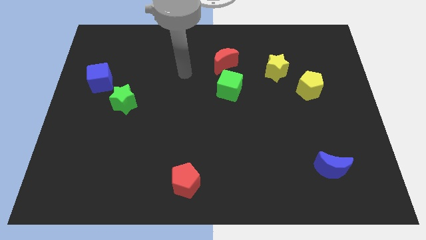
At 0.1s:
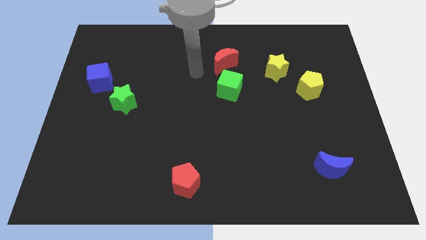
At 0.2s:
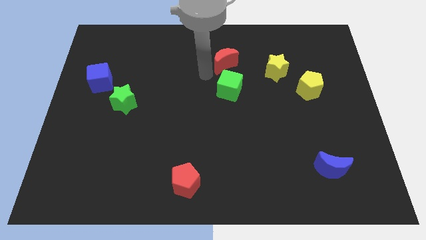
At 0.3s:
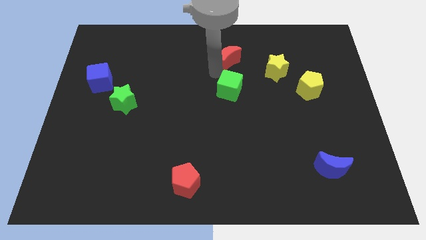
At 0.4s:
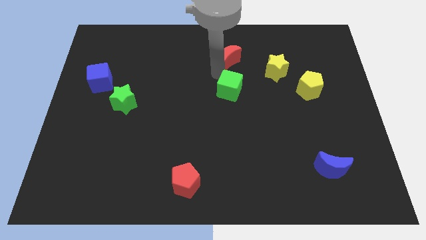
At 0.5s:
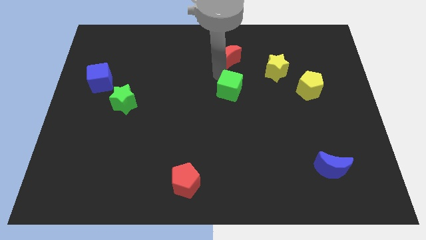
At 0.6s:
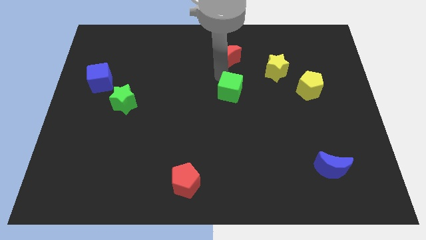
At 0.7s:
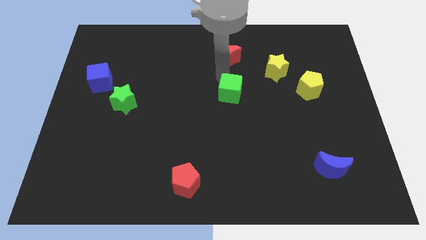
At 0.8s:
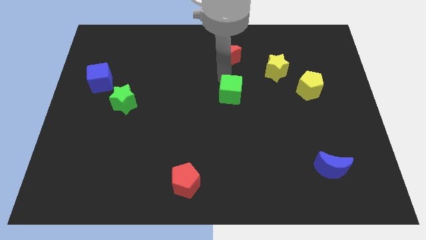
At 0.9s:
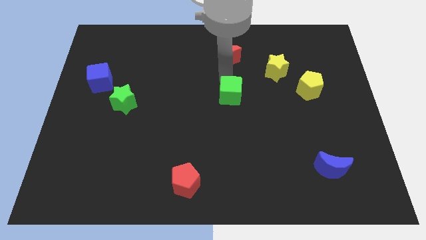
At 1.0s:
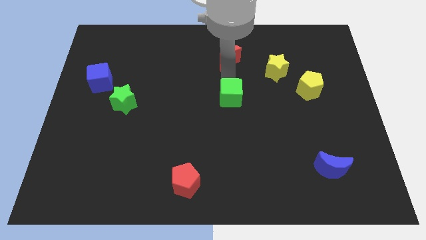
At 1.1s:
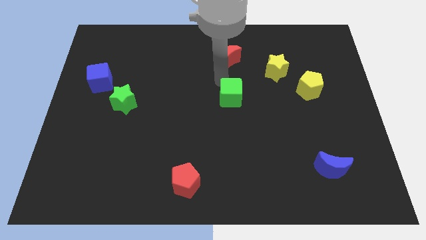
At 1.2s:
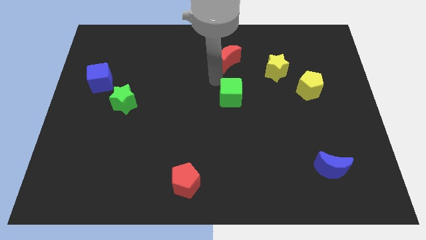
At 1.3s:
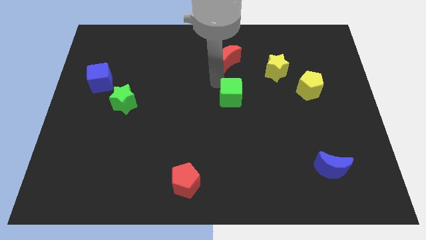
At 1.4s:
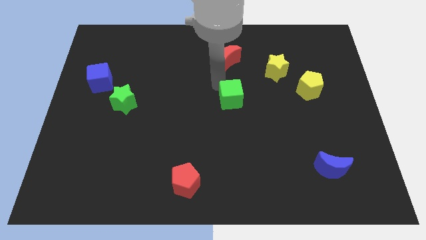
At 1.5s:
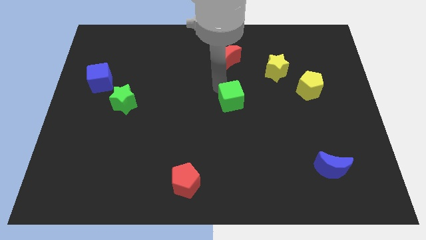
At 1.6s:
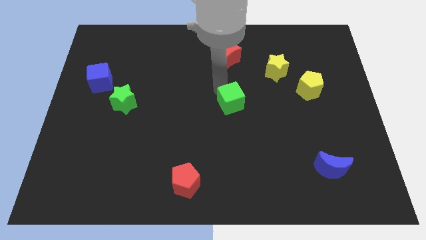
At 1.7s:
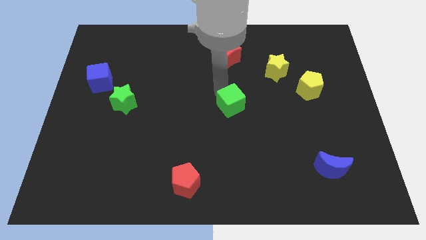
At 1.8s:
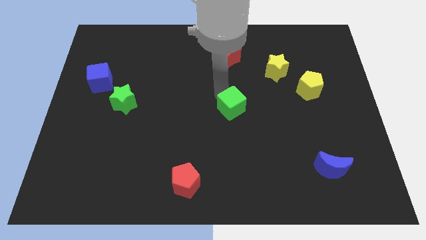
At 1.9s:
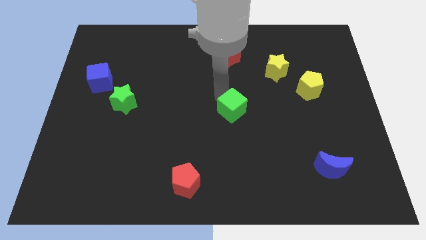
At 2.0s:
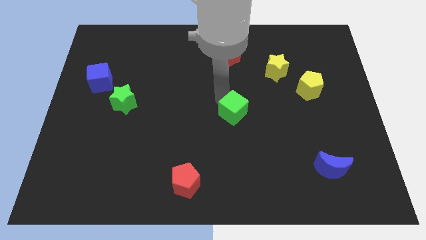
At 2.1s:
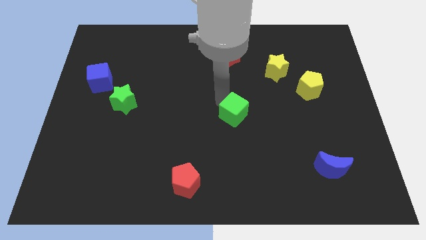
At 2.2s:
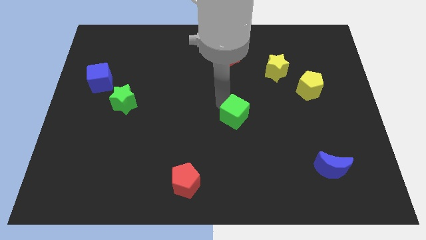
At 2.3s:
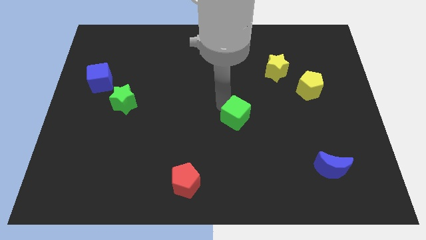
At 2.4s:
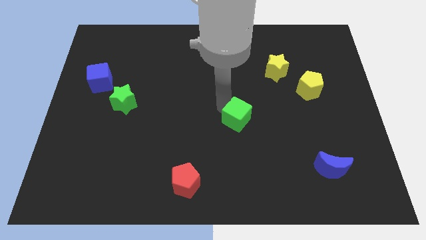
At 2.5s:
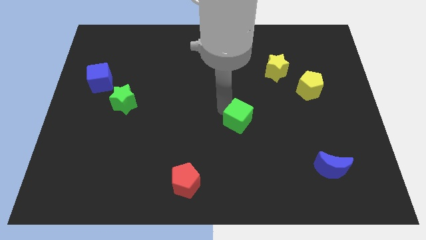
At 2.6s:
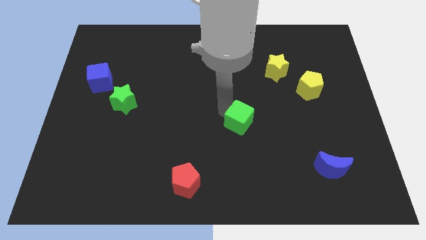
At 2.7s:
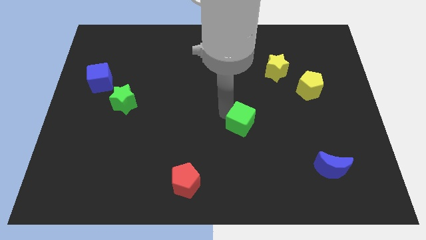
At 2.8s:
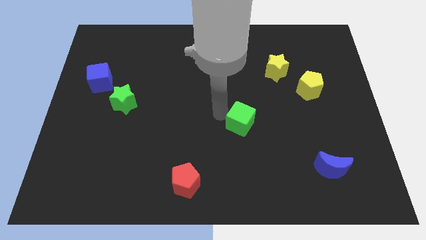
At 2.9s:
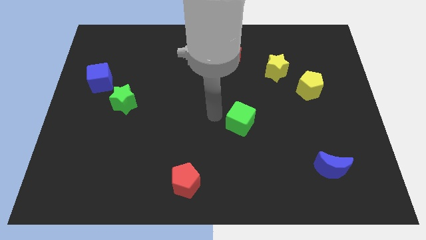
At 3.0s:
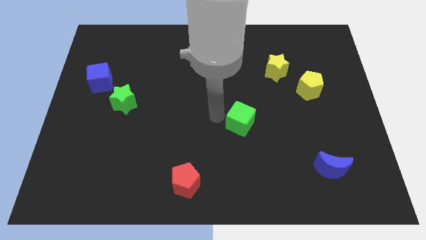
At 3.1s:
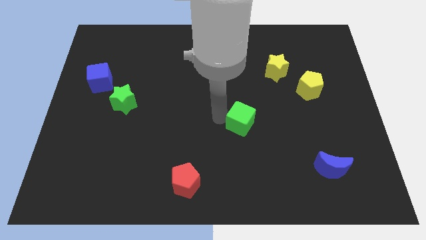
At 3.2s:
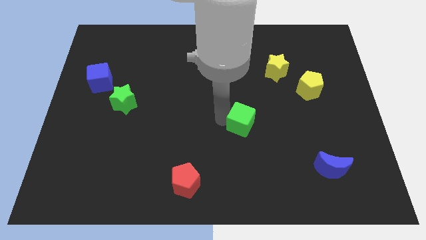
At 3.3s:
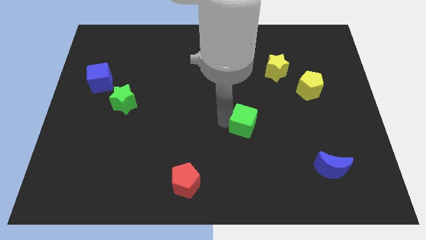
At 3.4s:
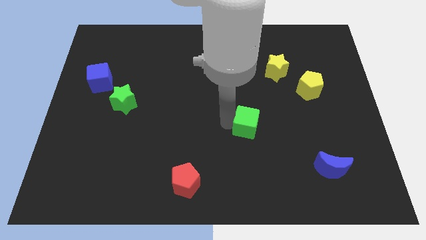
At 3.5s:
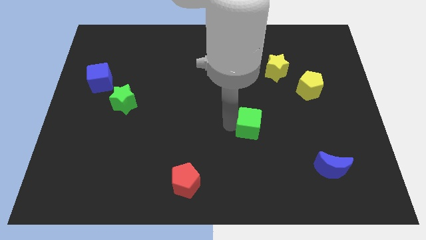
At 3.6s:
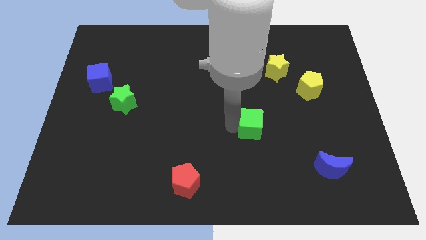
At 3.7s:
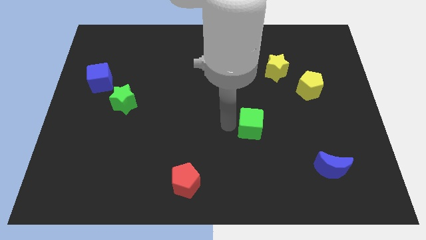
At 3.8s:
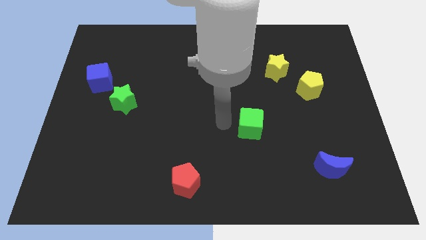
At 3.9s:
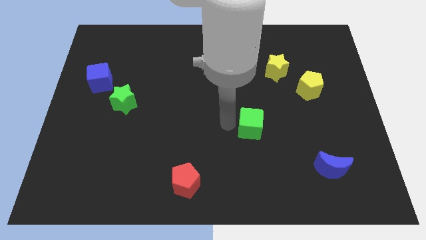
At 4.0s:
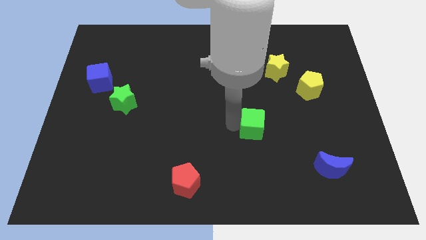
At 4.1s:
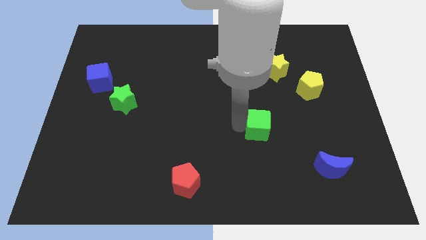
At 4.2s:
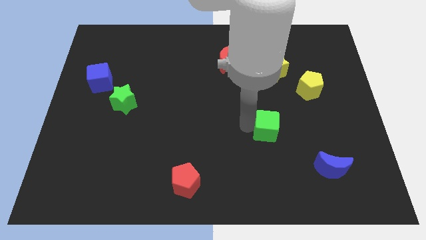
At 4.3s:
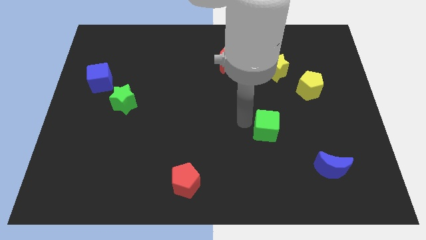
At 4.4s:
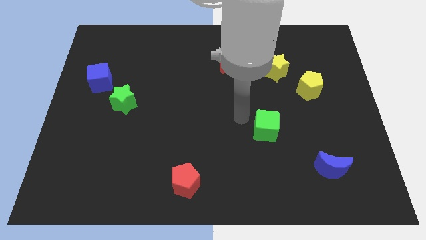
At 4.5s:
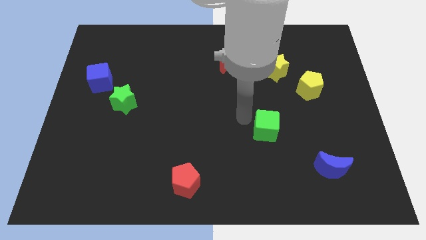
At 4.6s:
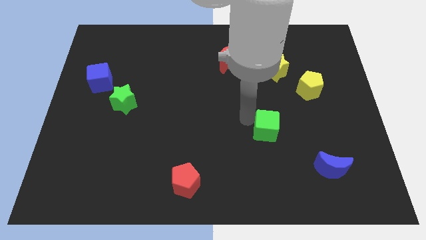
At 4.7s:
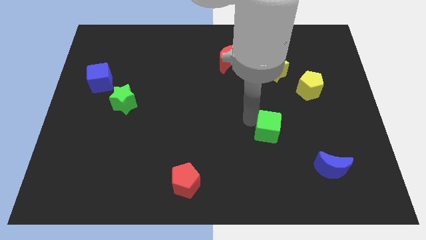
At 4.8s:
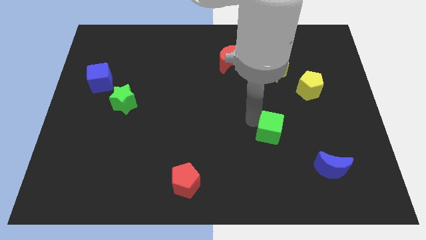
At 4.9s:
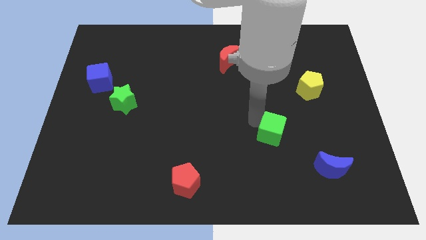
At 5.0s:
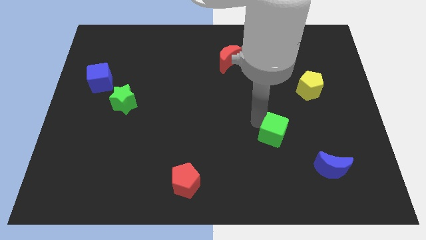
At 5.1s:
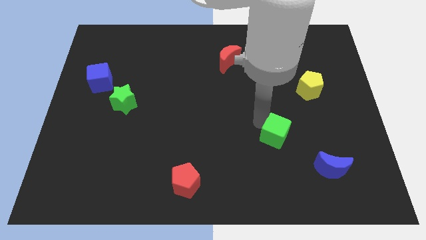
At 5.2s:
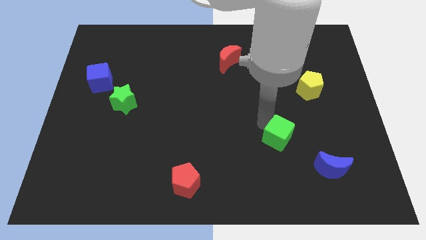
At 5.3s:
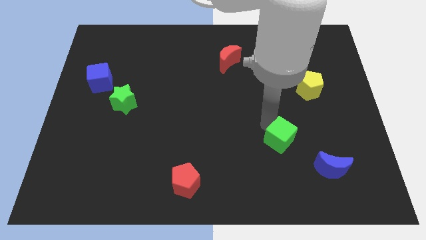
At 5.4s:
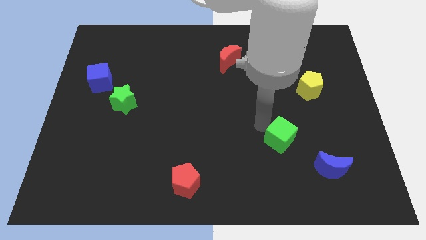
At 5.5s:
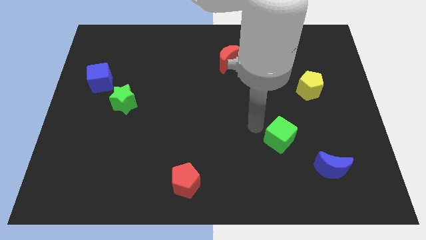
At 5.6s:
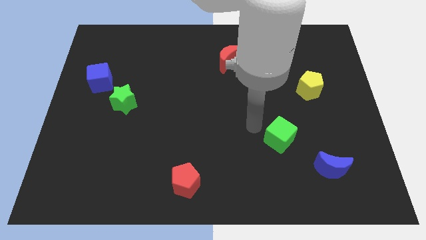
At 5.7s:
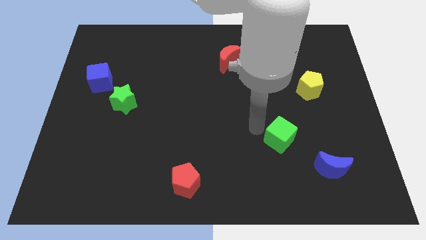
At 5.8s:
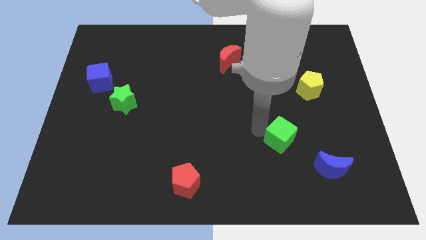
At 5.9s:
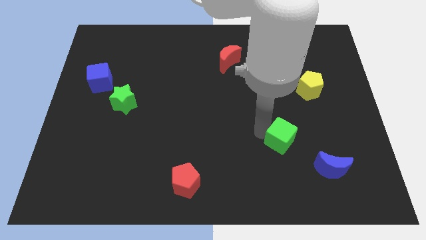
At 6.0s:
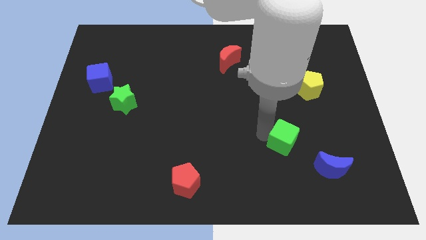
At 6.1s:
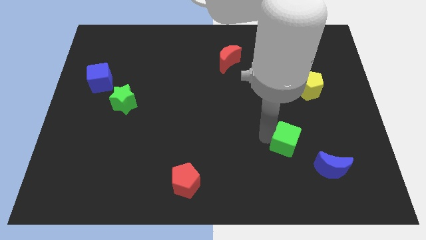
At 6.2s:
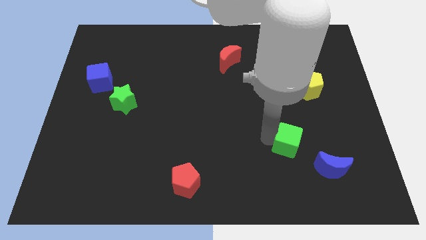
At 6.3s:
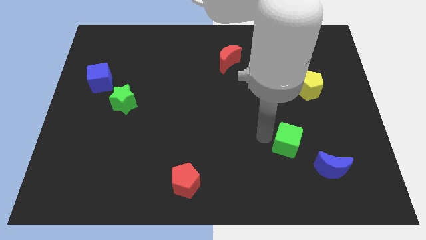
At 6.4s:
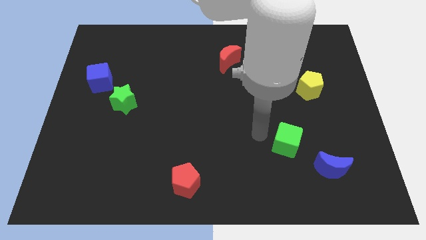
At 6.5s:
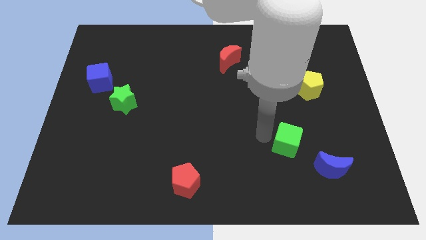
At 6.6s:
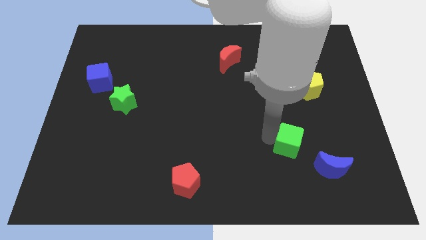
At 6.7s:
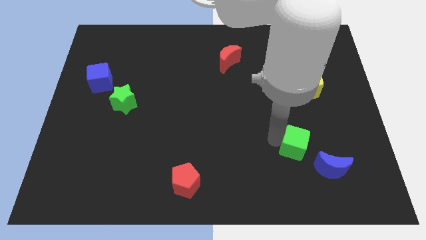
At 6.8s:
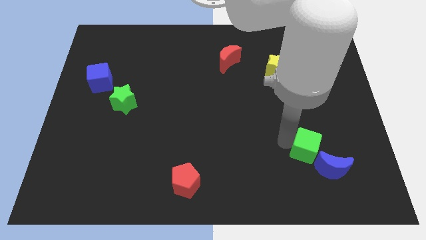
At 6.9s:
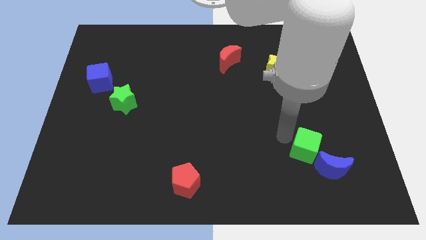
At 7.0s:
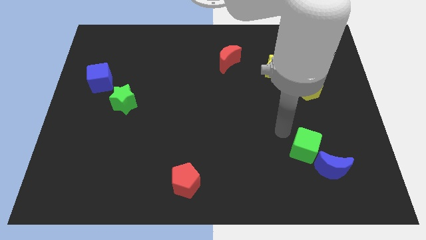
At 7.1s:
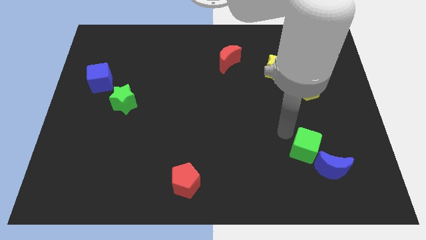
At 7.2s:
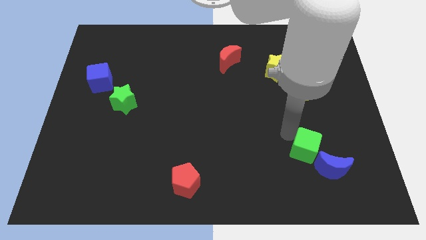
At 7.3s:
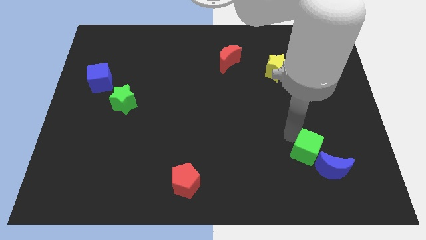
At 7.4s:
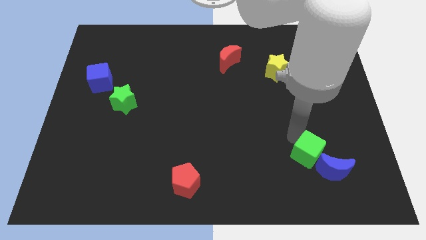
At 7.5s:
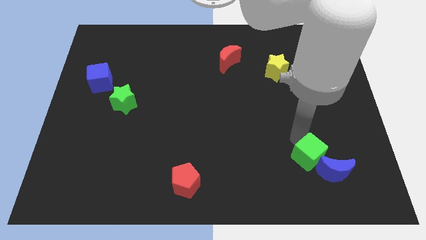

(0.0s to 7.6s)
push the green cube to the blue moon
